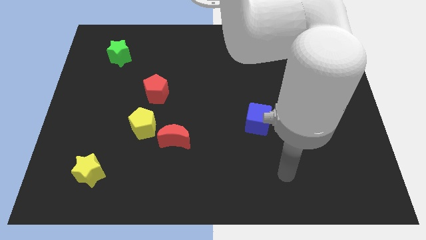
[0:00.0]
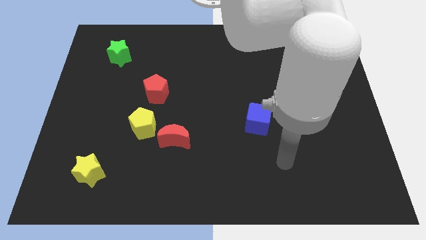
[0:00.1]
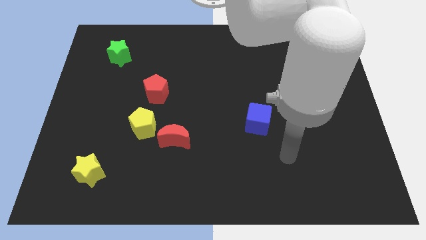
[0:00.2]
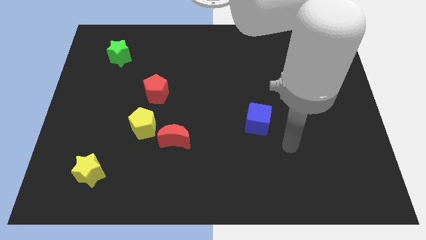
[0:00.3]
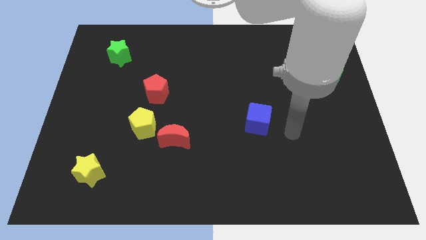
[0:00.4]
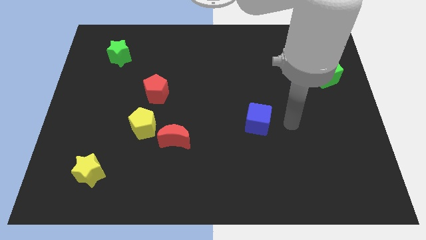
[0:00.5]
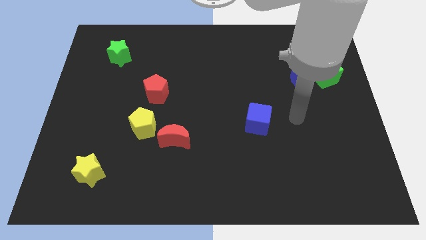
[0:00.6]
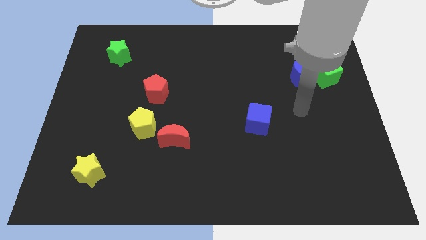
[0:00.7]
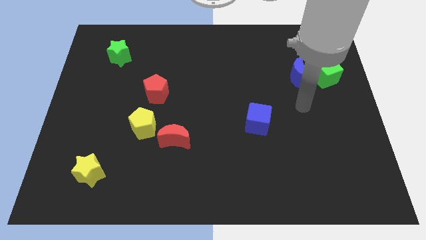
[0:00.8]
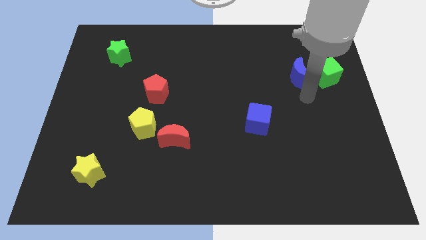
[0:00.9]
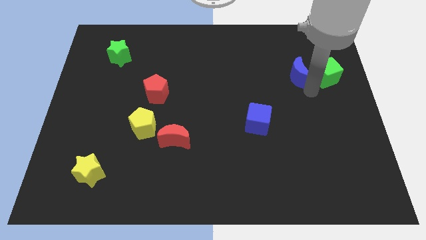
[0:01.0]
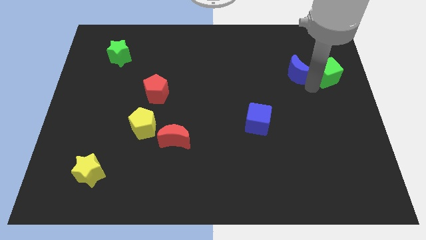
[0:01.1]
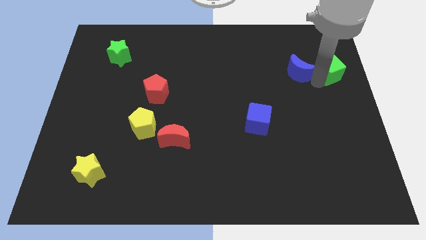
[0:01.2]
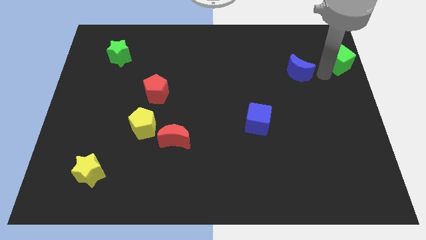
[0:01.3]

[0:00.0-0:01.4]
move the blue moon away from the green cube

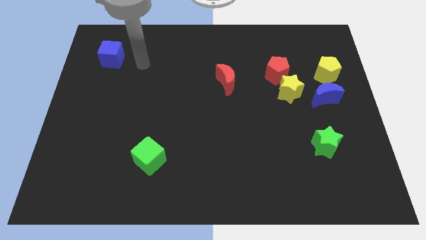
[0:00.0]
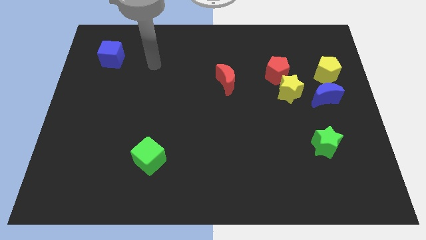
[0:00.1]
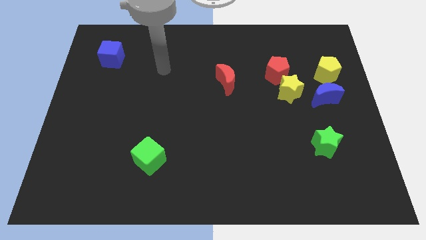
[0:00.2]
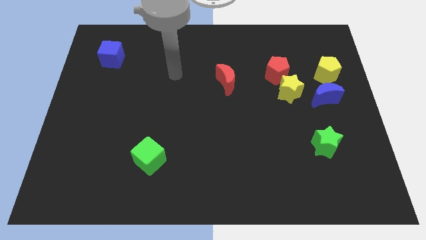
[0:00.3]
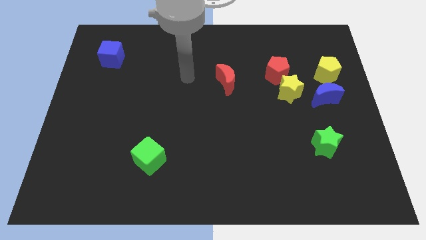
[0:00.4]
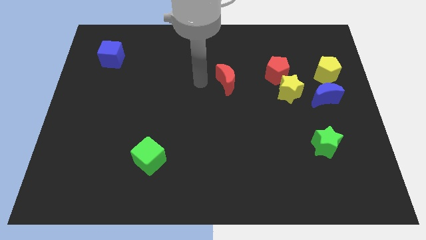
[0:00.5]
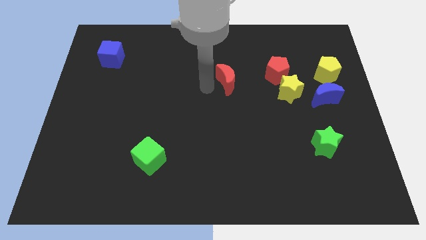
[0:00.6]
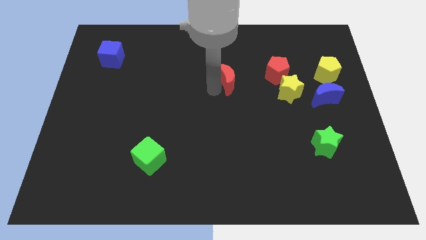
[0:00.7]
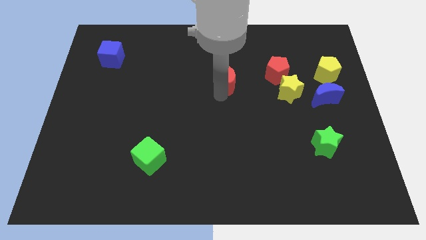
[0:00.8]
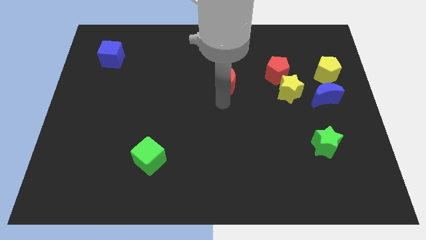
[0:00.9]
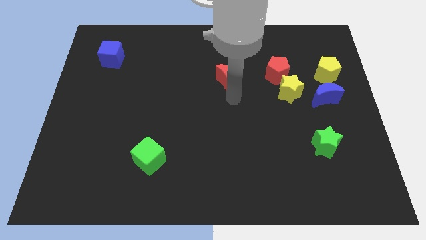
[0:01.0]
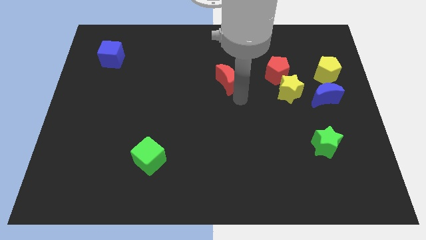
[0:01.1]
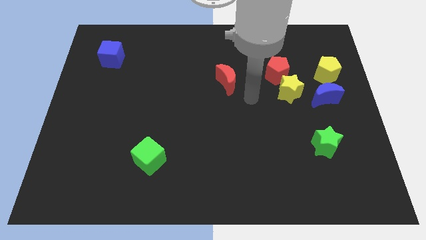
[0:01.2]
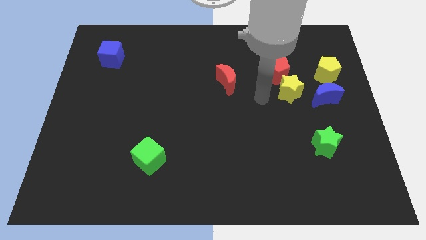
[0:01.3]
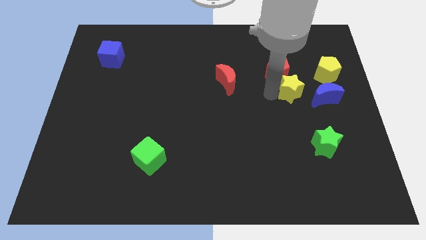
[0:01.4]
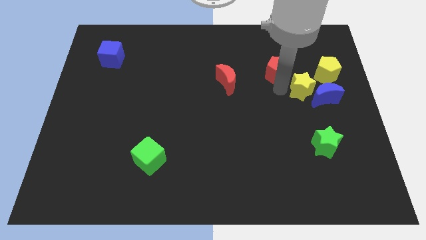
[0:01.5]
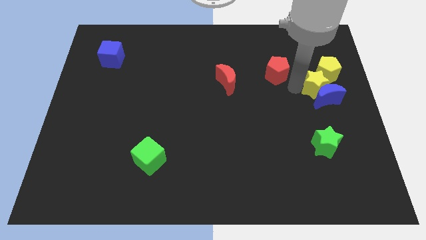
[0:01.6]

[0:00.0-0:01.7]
pull the red pentagon apart from the yellow star

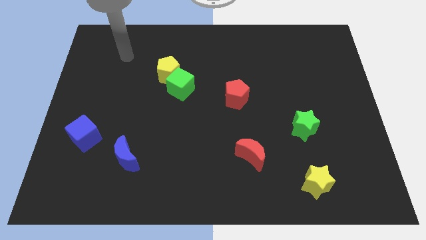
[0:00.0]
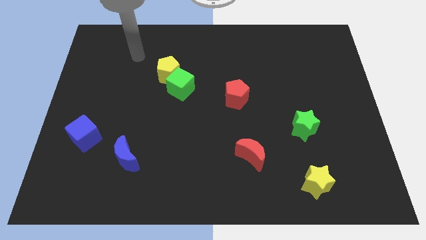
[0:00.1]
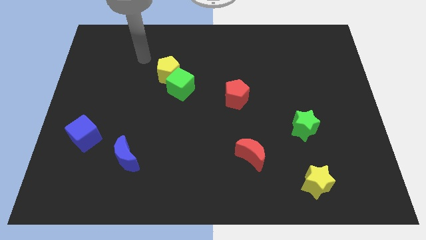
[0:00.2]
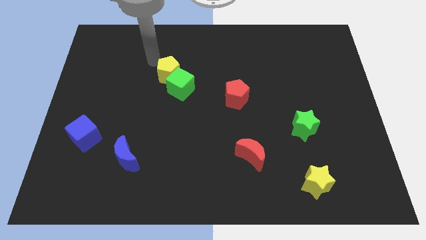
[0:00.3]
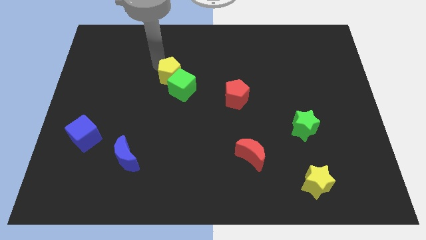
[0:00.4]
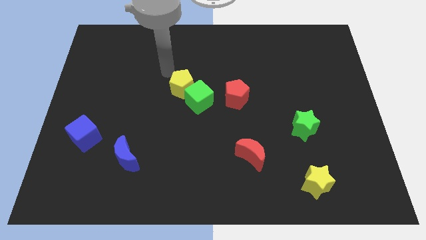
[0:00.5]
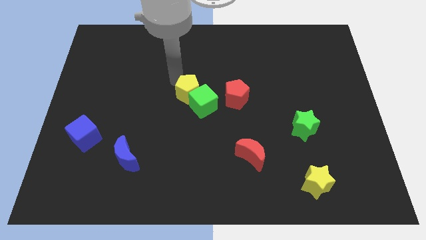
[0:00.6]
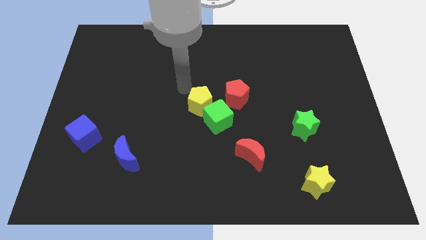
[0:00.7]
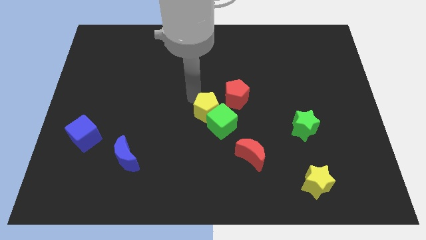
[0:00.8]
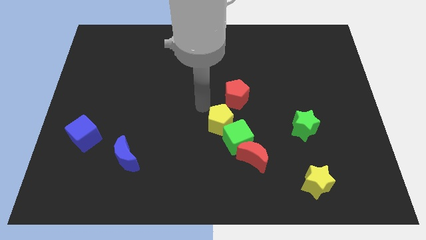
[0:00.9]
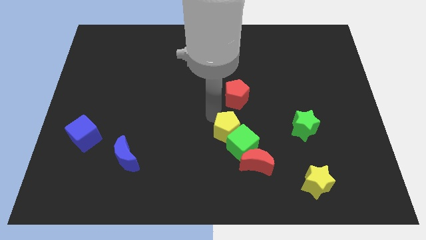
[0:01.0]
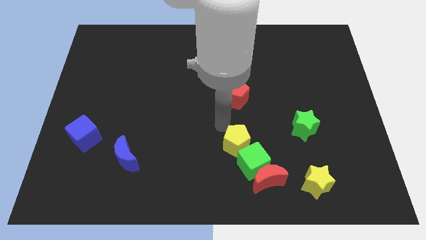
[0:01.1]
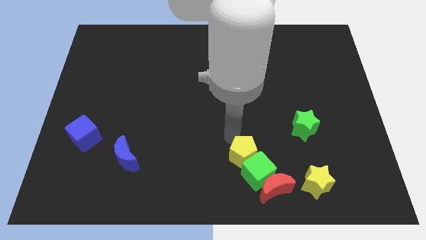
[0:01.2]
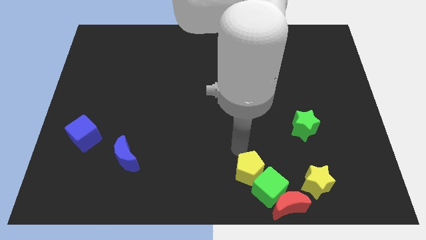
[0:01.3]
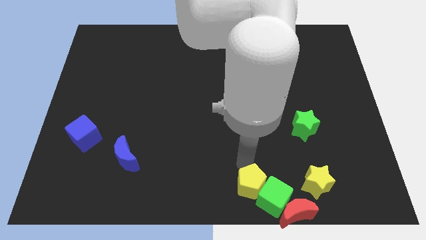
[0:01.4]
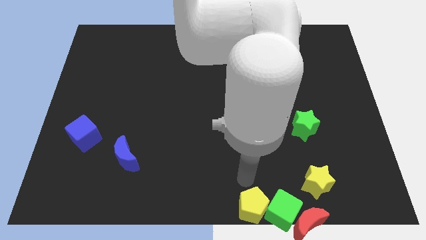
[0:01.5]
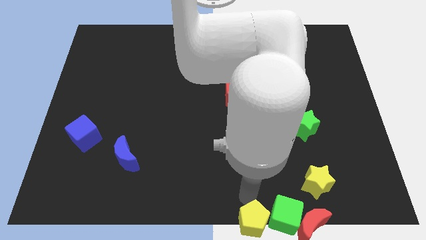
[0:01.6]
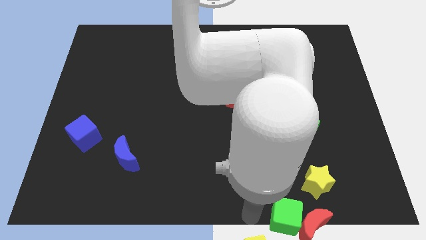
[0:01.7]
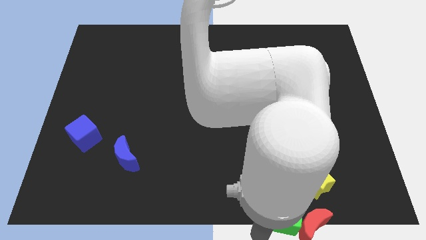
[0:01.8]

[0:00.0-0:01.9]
pull the green cube apart from the yellow pentagon

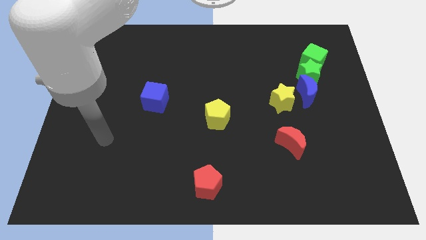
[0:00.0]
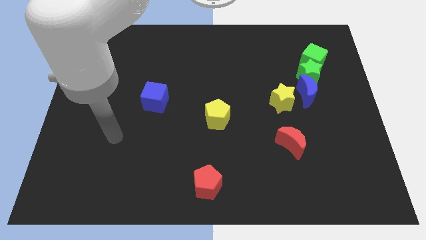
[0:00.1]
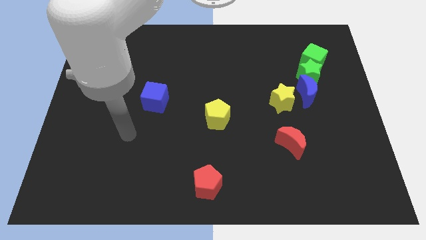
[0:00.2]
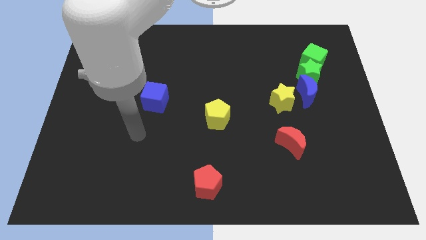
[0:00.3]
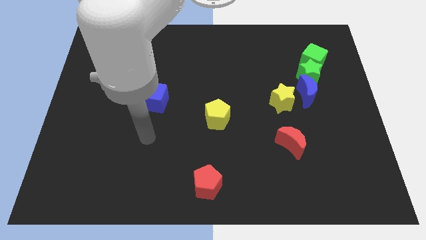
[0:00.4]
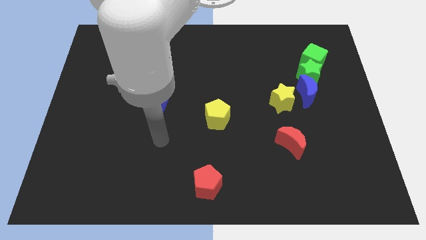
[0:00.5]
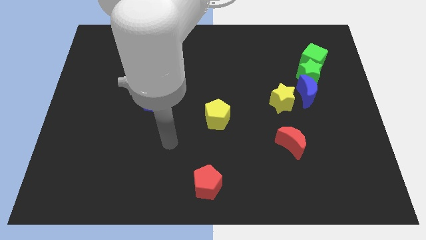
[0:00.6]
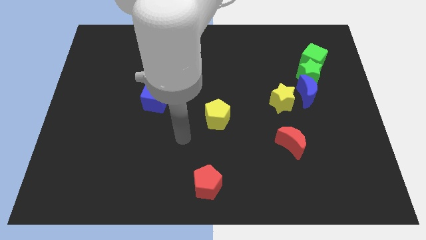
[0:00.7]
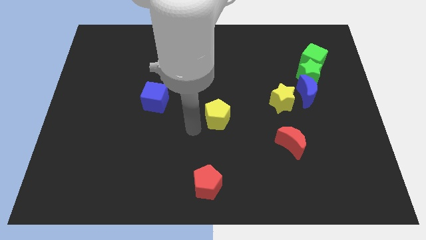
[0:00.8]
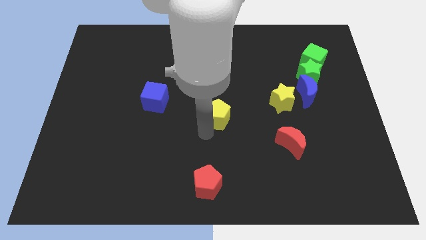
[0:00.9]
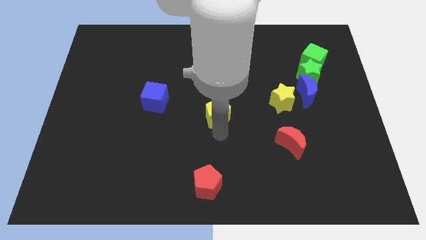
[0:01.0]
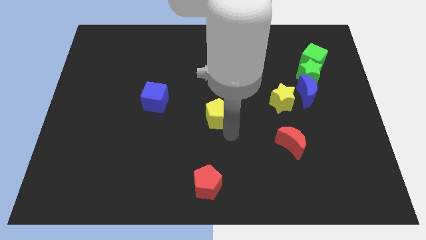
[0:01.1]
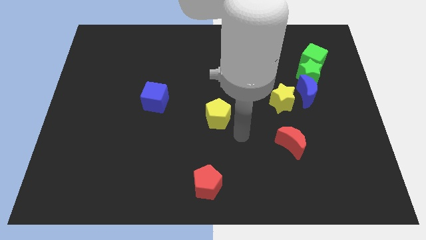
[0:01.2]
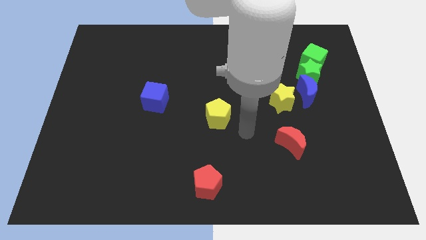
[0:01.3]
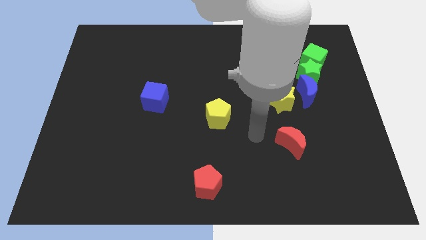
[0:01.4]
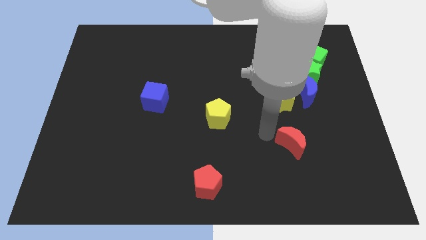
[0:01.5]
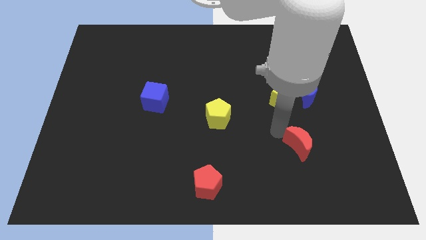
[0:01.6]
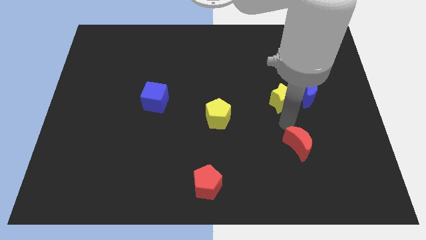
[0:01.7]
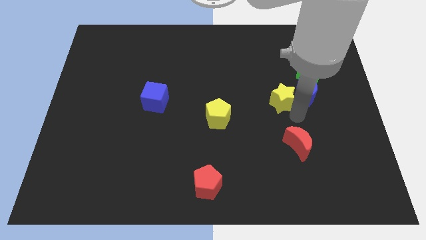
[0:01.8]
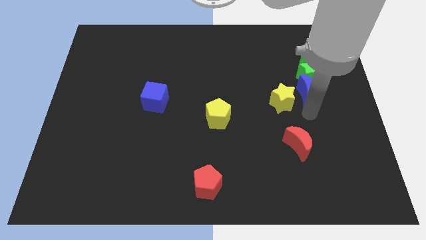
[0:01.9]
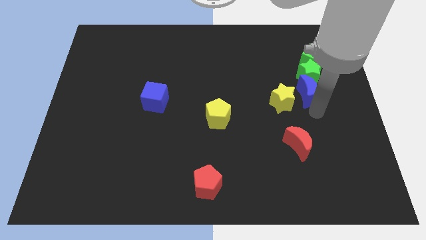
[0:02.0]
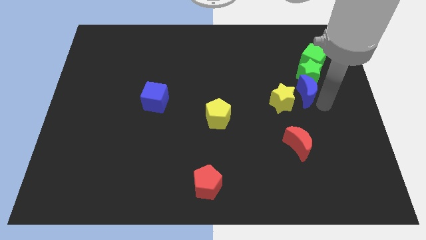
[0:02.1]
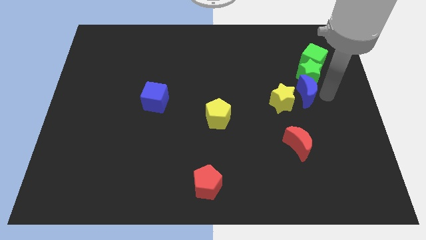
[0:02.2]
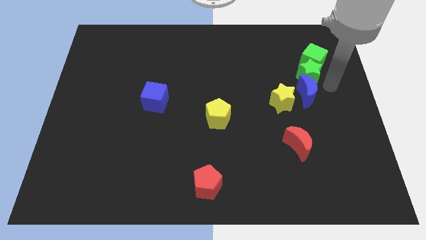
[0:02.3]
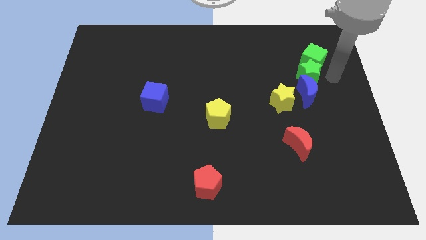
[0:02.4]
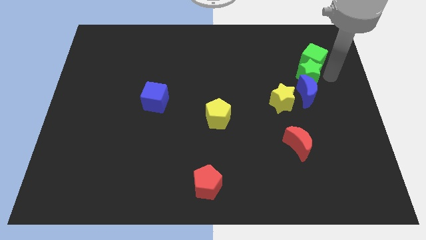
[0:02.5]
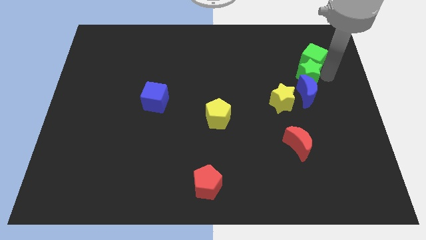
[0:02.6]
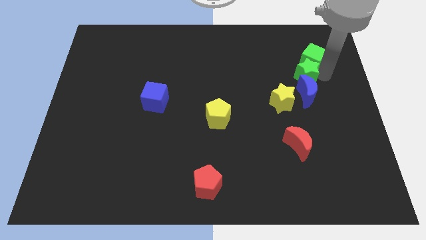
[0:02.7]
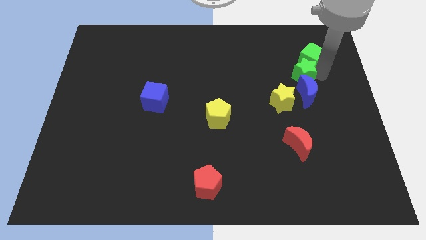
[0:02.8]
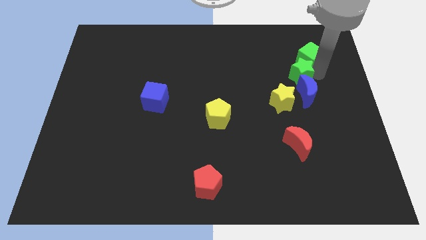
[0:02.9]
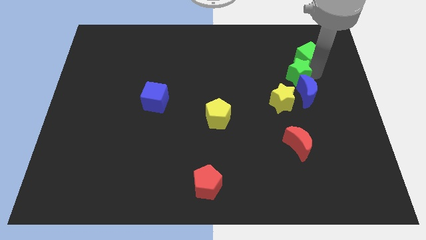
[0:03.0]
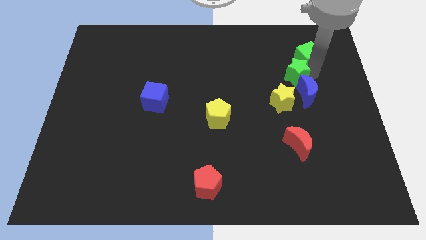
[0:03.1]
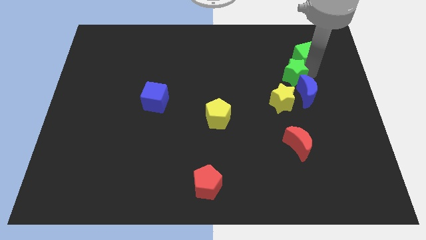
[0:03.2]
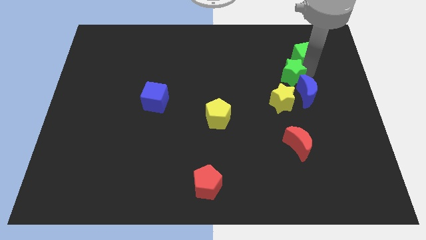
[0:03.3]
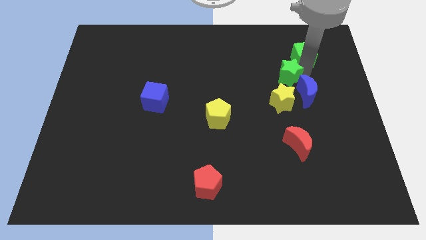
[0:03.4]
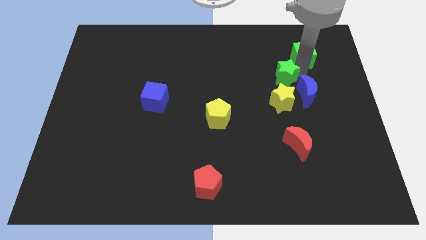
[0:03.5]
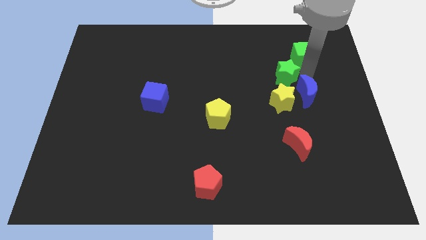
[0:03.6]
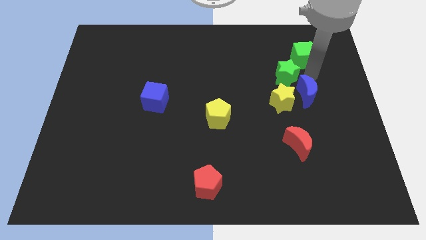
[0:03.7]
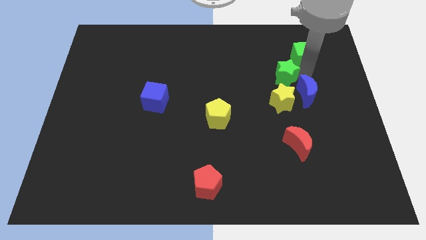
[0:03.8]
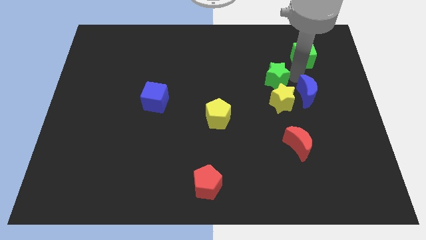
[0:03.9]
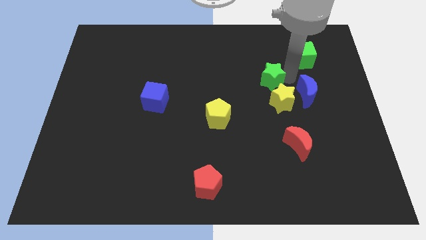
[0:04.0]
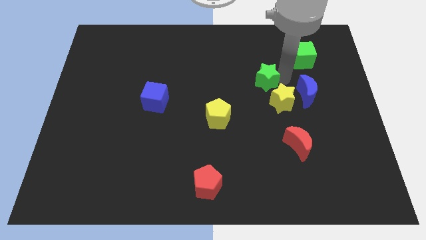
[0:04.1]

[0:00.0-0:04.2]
separate the green star from the blue moon and green cube

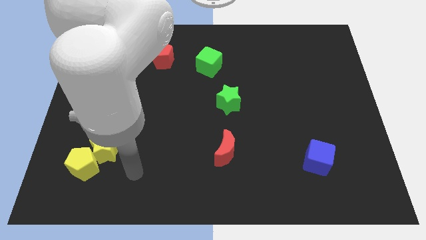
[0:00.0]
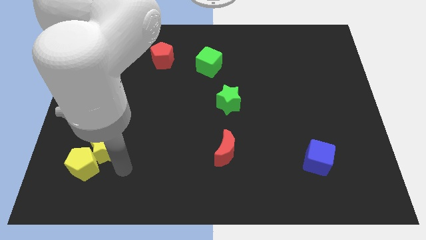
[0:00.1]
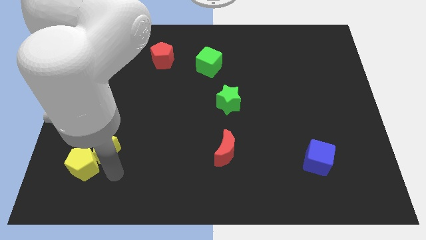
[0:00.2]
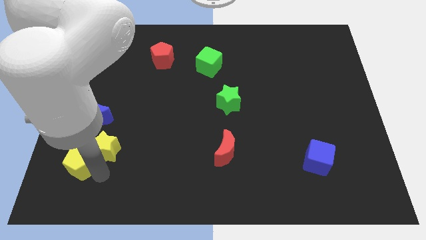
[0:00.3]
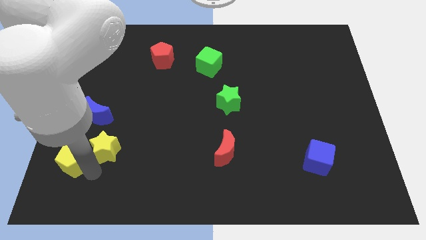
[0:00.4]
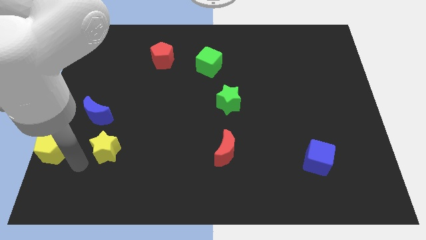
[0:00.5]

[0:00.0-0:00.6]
move the yellow star away from the yellow pentagon
